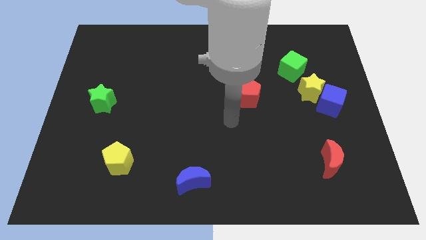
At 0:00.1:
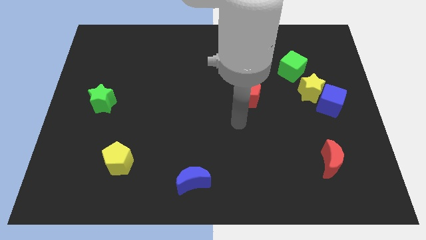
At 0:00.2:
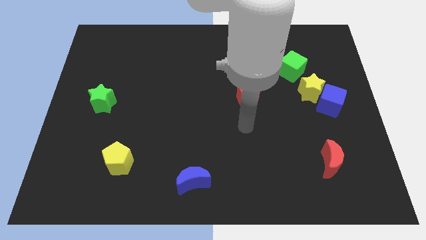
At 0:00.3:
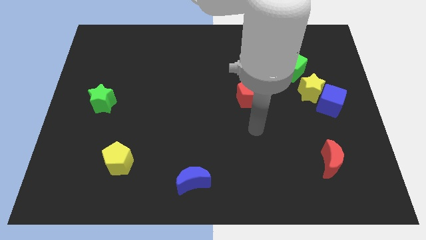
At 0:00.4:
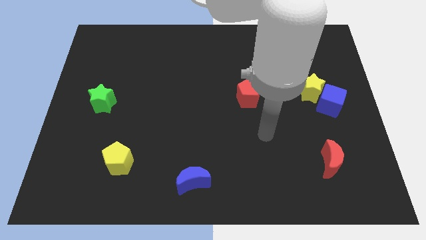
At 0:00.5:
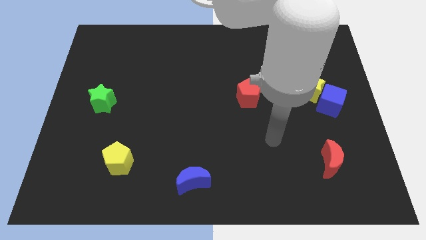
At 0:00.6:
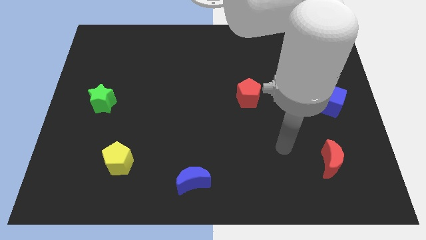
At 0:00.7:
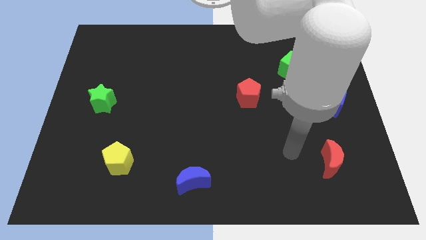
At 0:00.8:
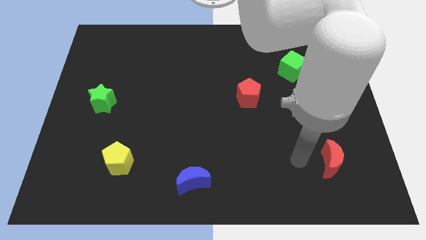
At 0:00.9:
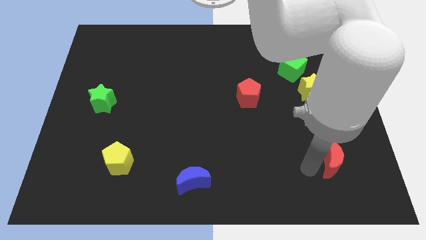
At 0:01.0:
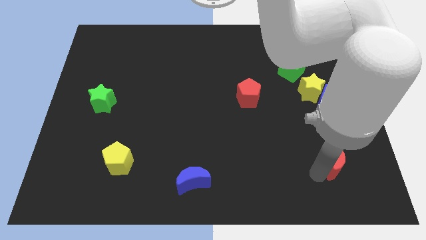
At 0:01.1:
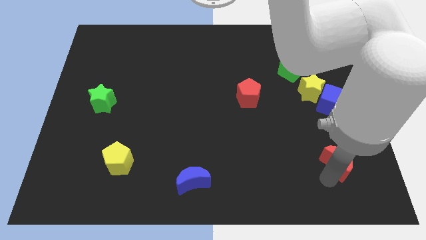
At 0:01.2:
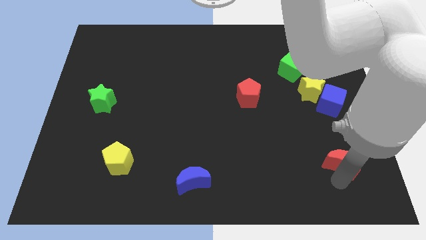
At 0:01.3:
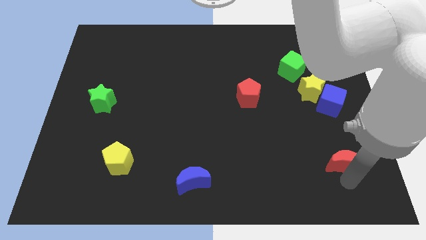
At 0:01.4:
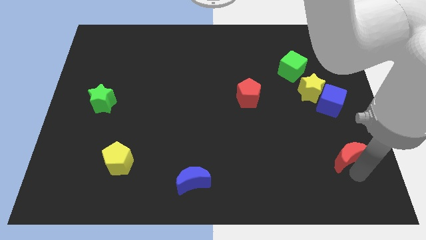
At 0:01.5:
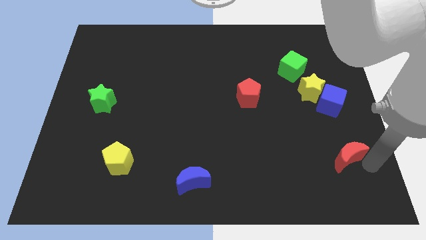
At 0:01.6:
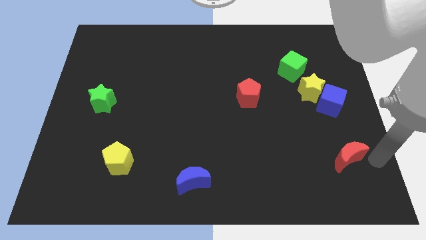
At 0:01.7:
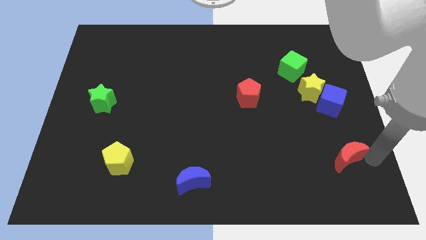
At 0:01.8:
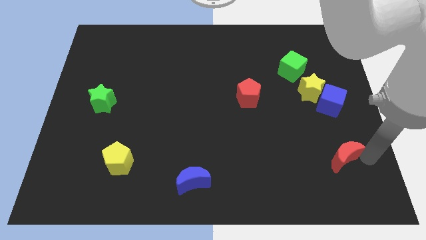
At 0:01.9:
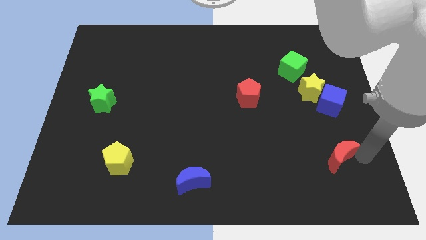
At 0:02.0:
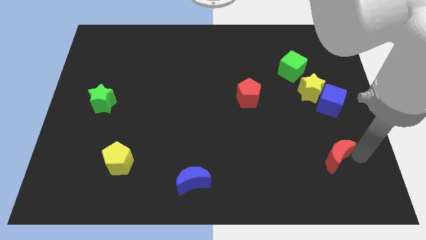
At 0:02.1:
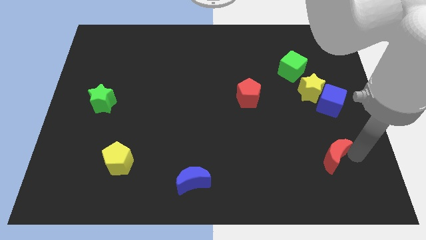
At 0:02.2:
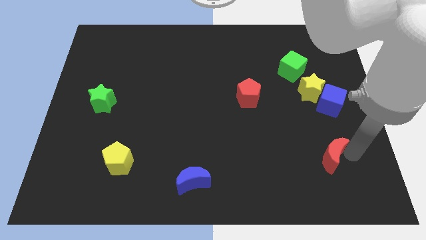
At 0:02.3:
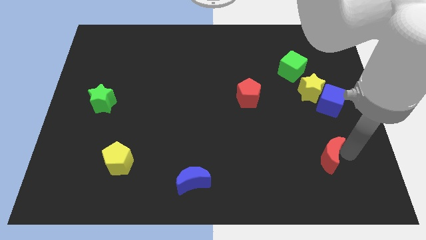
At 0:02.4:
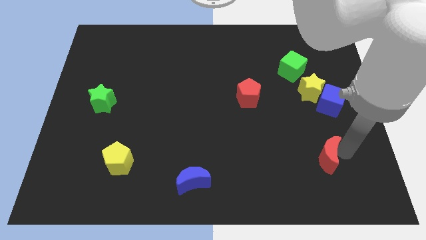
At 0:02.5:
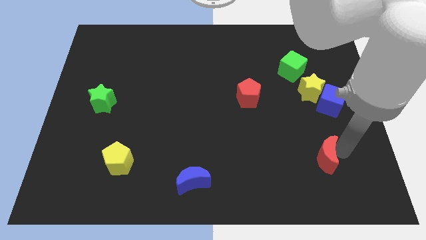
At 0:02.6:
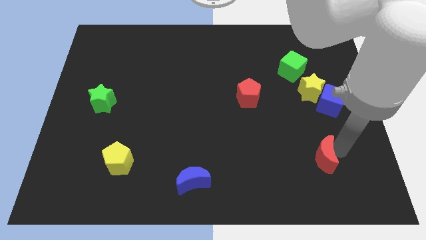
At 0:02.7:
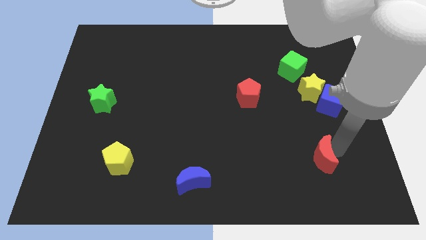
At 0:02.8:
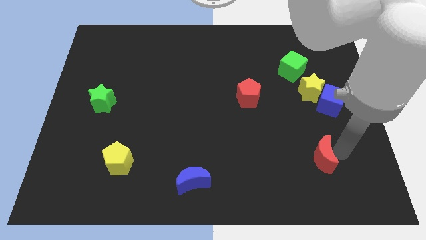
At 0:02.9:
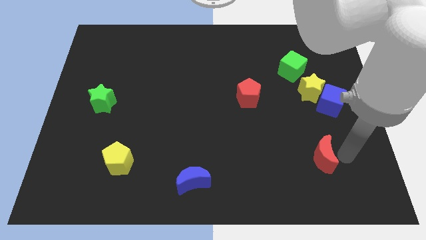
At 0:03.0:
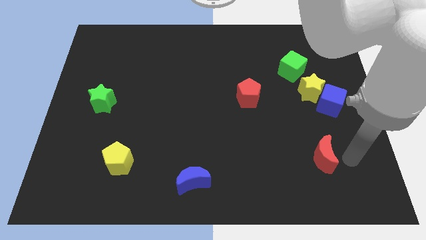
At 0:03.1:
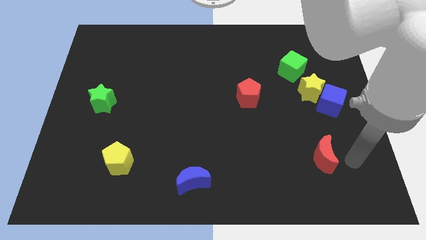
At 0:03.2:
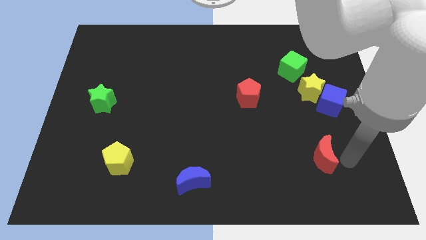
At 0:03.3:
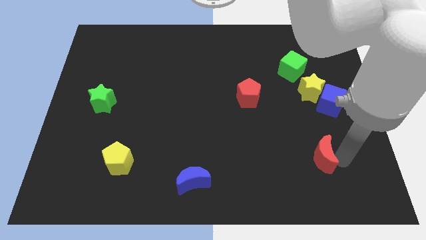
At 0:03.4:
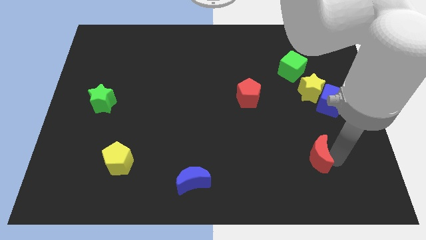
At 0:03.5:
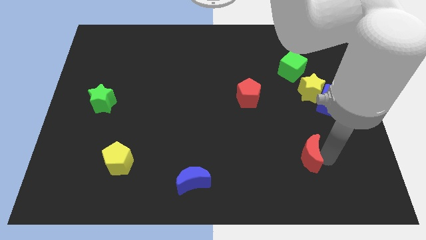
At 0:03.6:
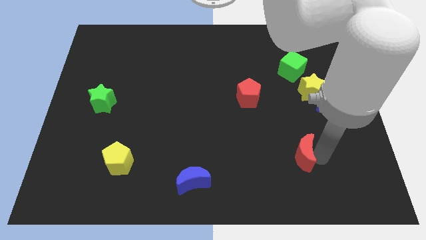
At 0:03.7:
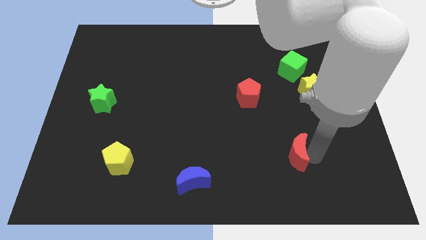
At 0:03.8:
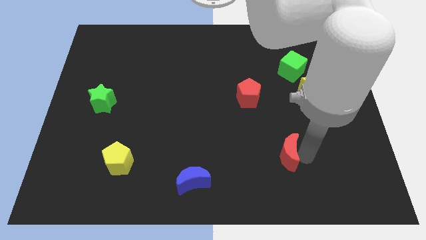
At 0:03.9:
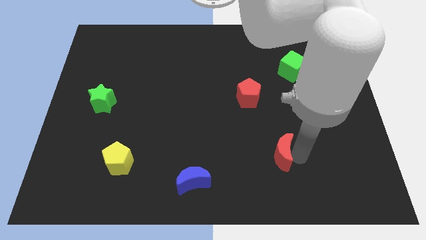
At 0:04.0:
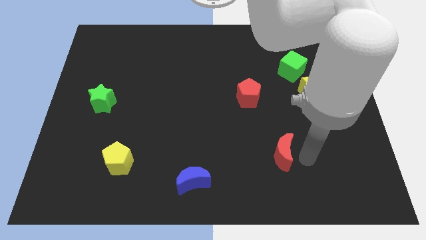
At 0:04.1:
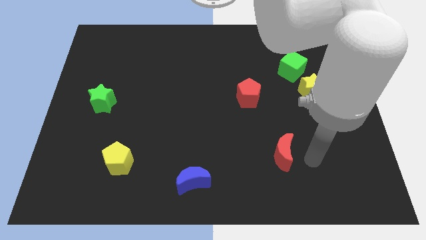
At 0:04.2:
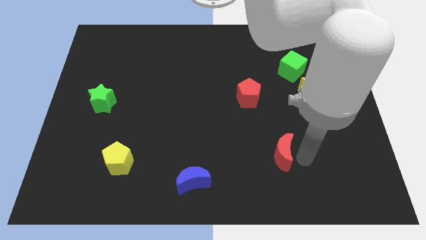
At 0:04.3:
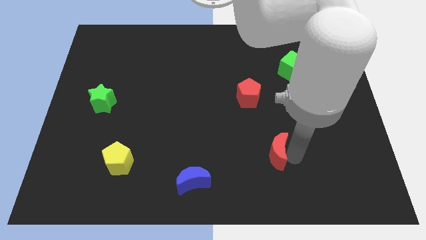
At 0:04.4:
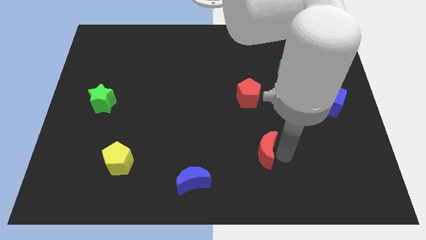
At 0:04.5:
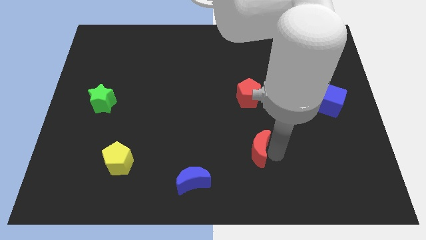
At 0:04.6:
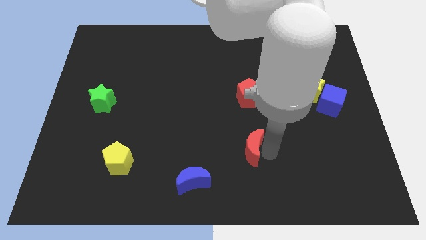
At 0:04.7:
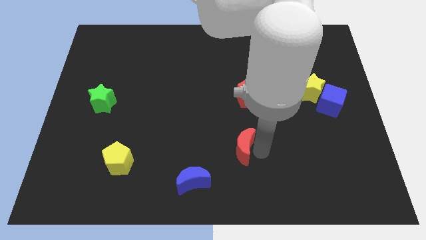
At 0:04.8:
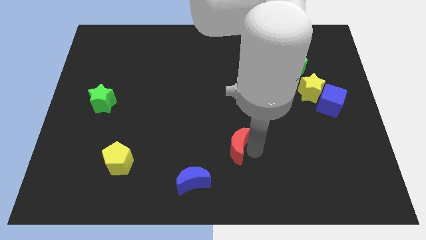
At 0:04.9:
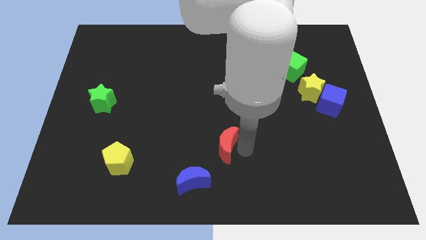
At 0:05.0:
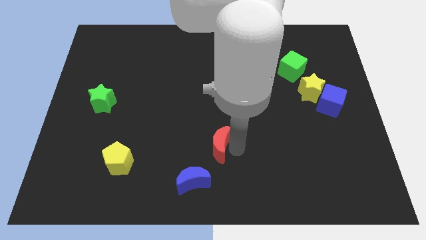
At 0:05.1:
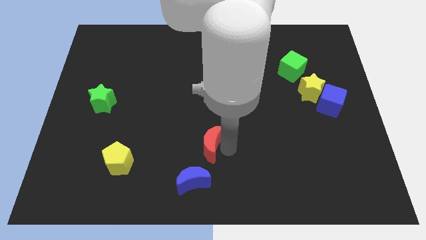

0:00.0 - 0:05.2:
put the red moon to the top side of the blue moon

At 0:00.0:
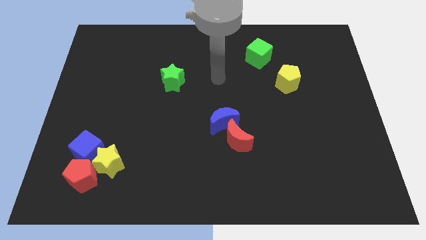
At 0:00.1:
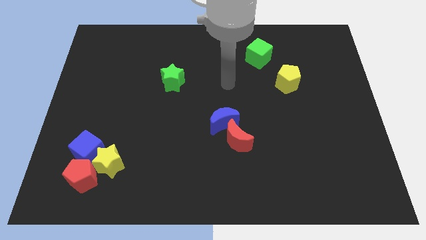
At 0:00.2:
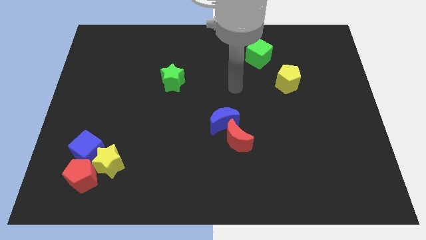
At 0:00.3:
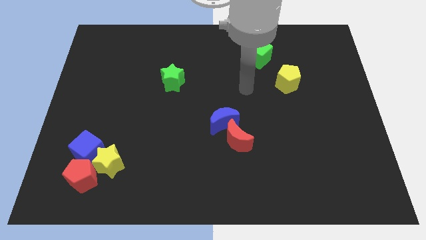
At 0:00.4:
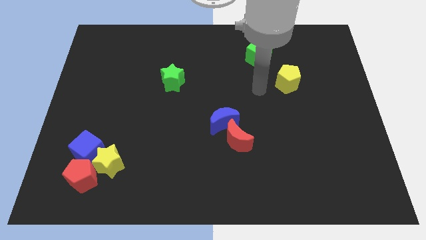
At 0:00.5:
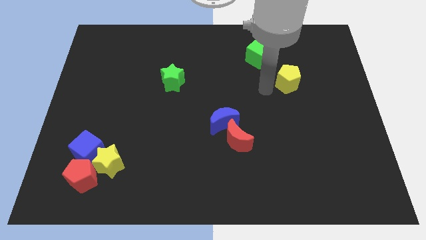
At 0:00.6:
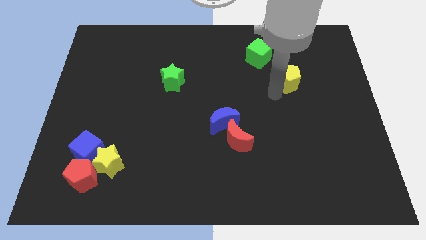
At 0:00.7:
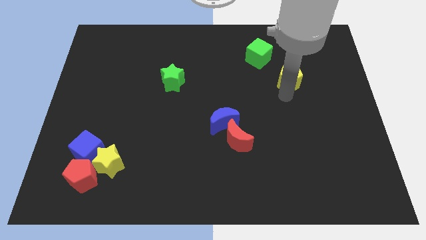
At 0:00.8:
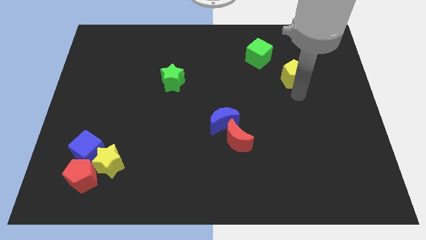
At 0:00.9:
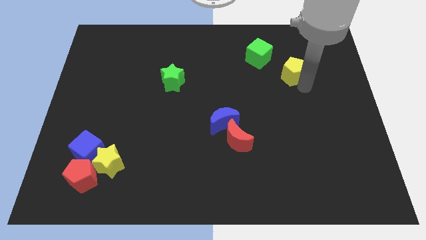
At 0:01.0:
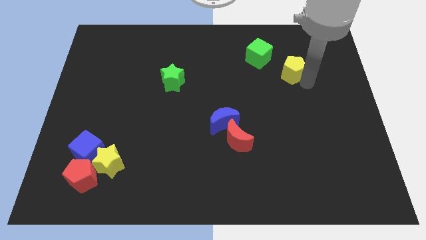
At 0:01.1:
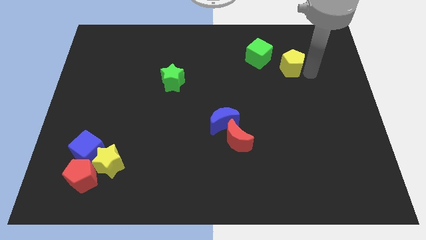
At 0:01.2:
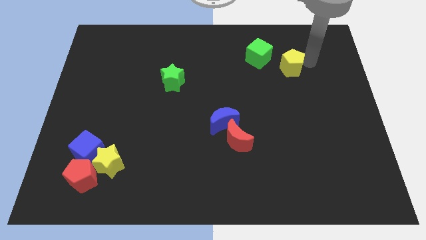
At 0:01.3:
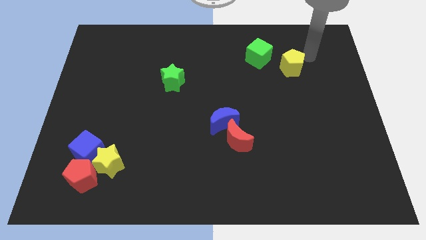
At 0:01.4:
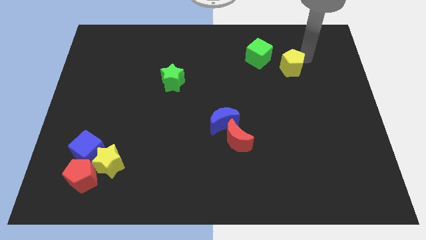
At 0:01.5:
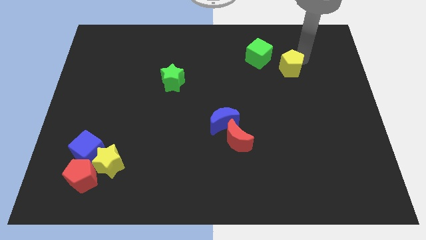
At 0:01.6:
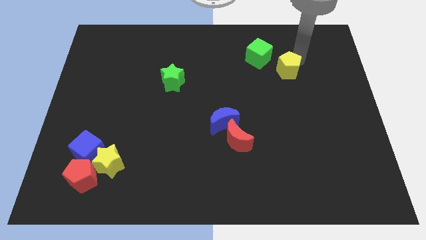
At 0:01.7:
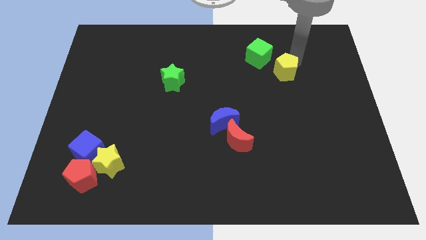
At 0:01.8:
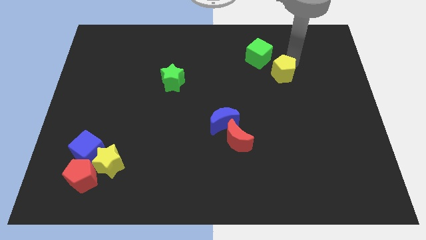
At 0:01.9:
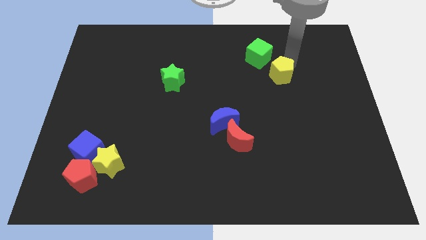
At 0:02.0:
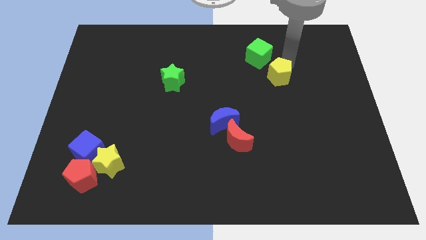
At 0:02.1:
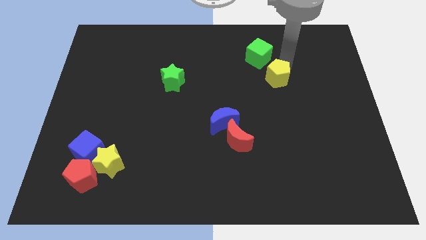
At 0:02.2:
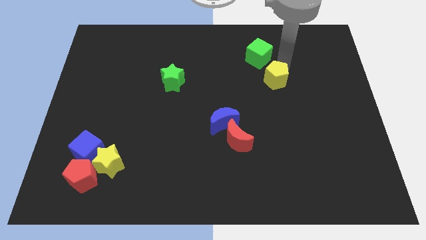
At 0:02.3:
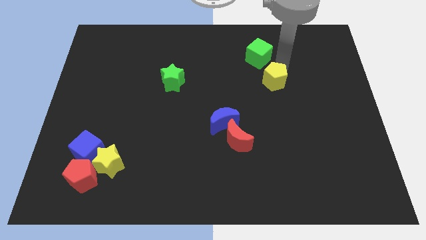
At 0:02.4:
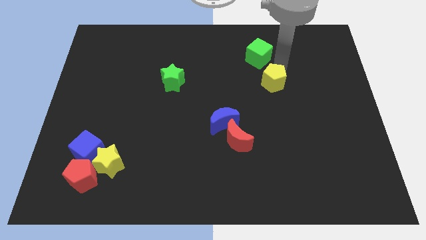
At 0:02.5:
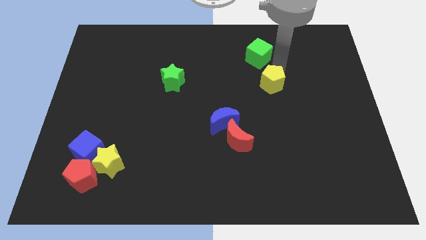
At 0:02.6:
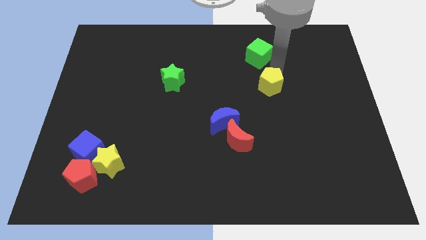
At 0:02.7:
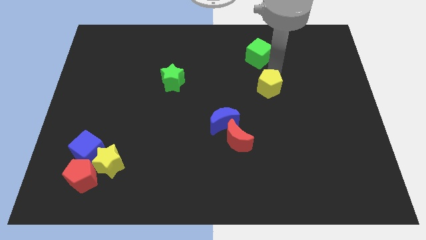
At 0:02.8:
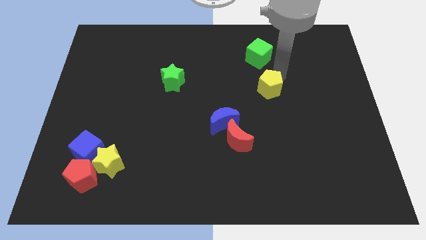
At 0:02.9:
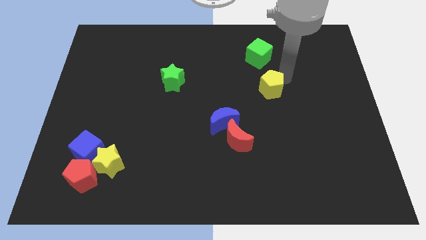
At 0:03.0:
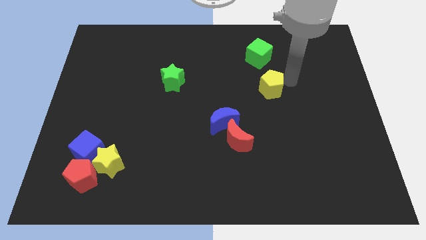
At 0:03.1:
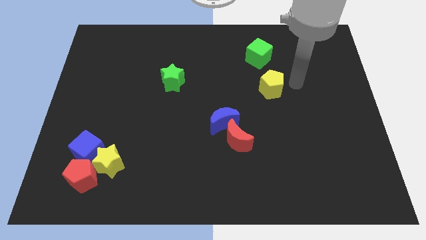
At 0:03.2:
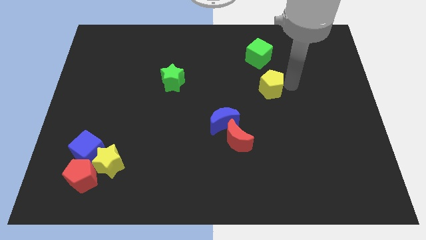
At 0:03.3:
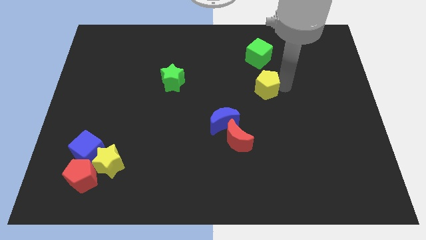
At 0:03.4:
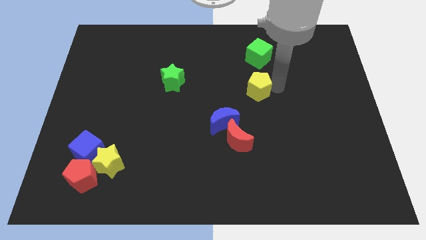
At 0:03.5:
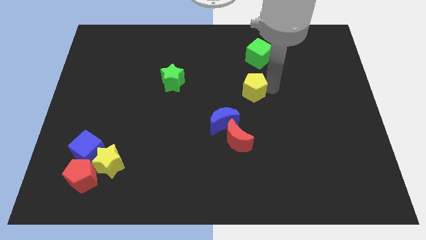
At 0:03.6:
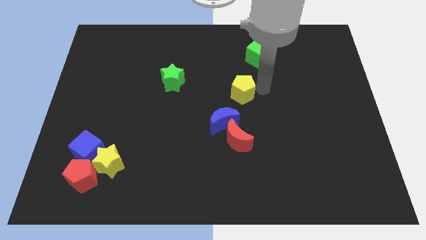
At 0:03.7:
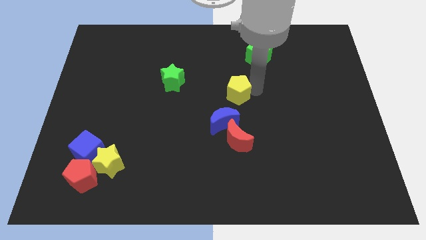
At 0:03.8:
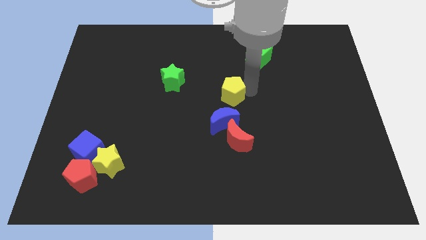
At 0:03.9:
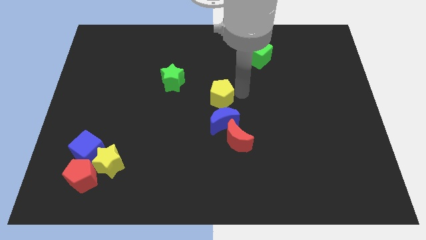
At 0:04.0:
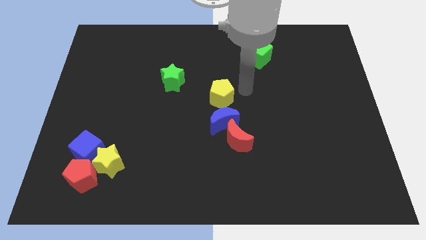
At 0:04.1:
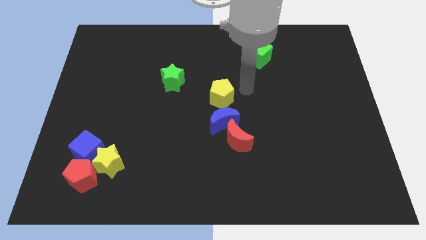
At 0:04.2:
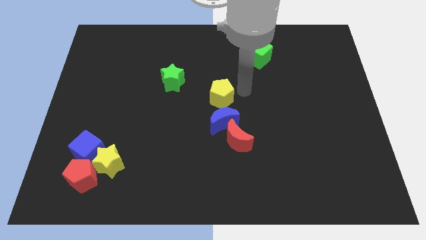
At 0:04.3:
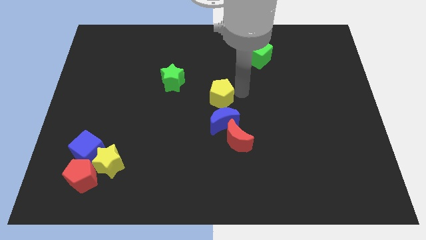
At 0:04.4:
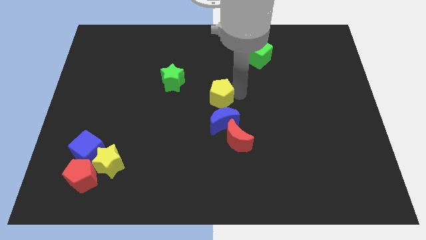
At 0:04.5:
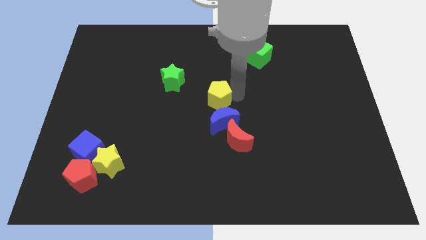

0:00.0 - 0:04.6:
move the yellow pentagon diagonally up and to the left of the blue moon
